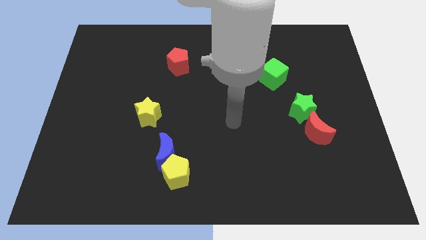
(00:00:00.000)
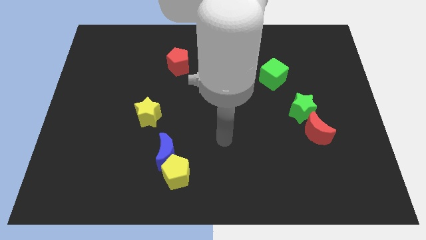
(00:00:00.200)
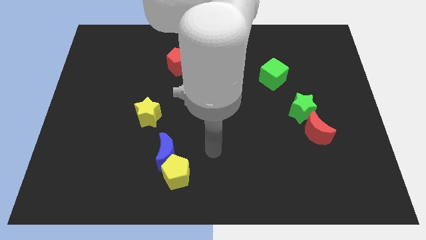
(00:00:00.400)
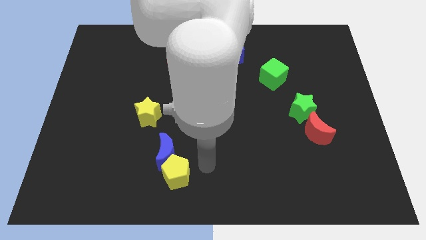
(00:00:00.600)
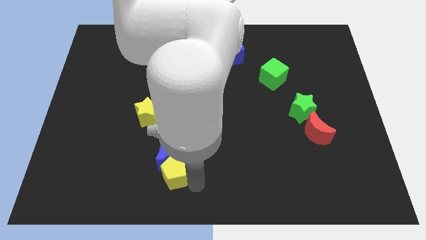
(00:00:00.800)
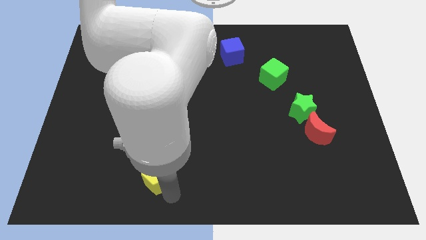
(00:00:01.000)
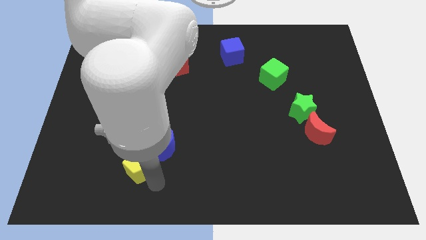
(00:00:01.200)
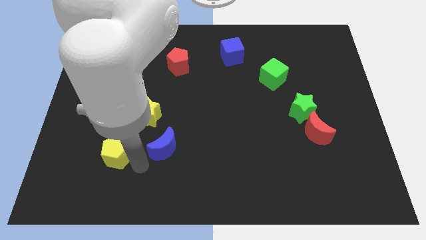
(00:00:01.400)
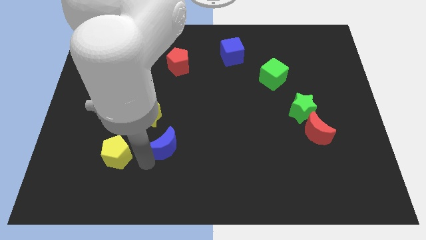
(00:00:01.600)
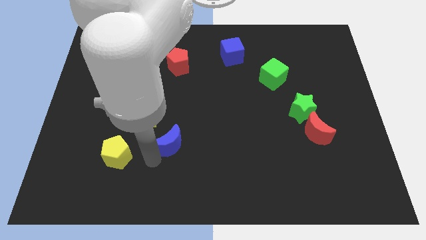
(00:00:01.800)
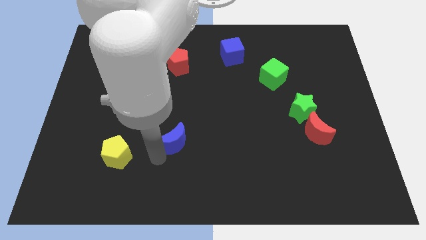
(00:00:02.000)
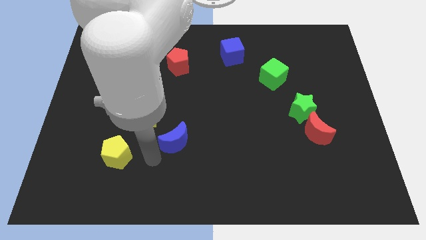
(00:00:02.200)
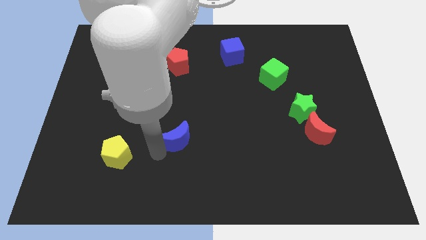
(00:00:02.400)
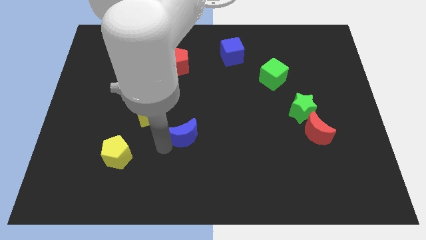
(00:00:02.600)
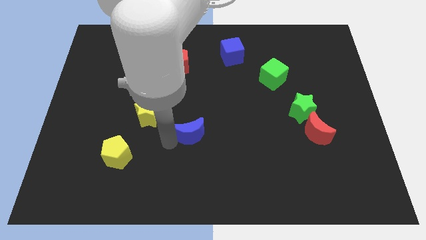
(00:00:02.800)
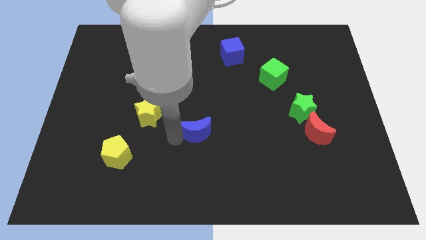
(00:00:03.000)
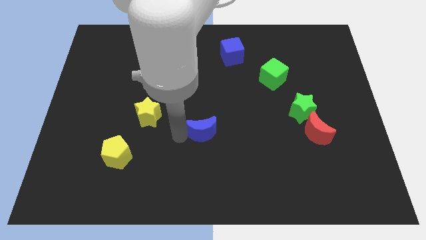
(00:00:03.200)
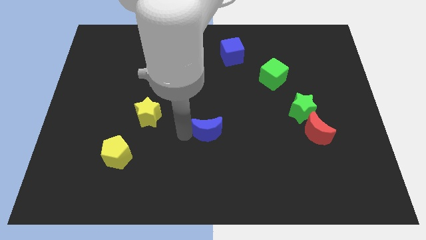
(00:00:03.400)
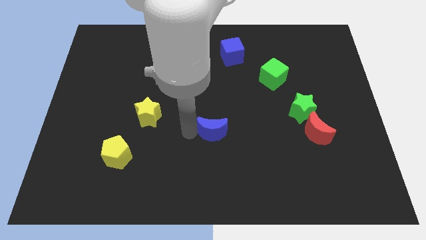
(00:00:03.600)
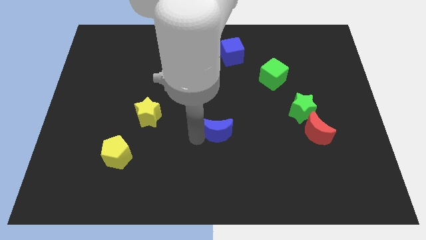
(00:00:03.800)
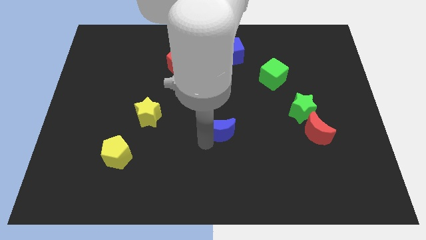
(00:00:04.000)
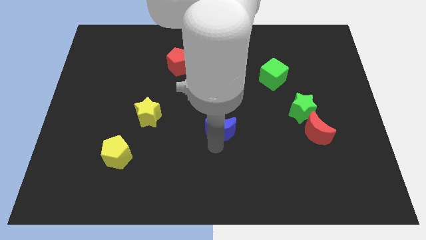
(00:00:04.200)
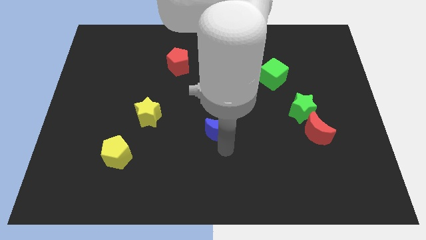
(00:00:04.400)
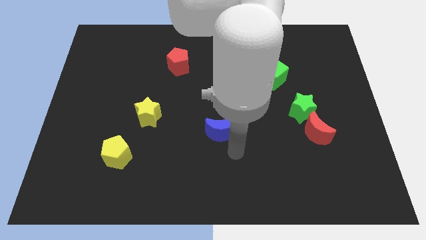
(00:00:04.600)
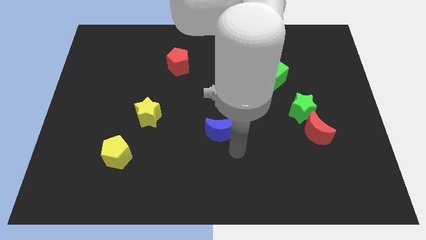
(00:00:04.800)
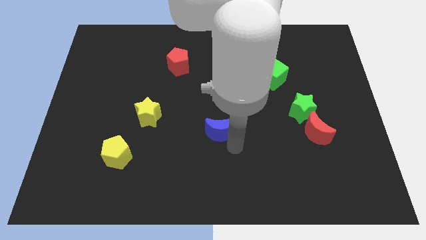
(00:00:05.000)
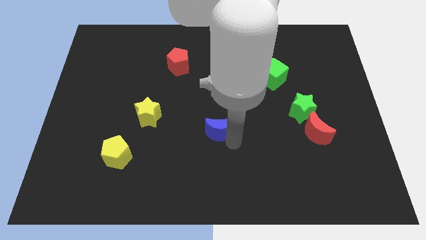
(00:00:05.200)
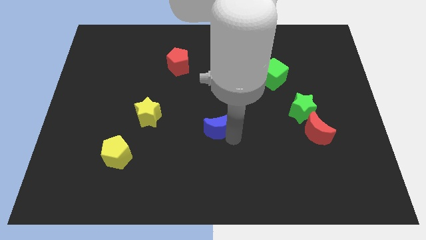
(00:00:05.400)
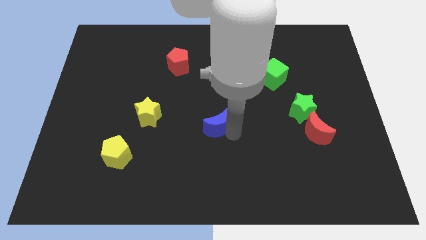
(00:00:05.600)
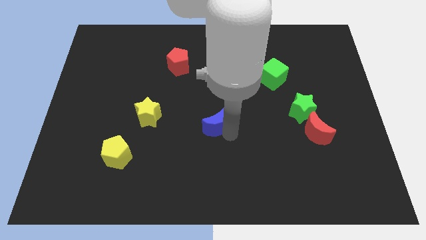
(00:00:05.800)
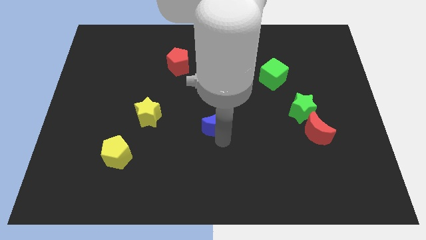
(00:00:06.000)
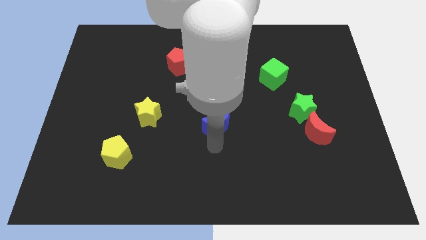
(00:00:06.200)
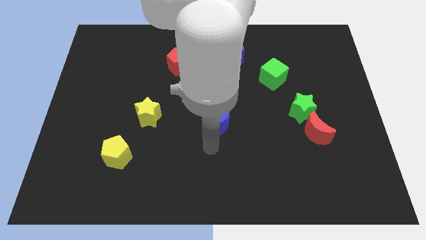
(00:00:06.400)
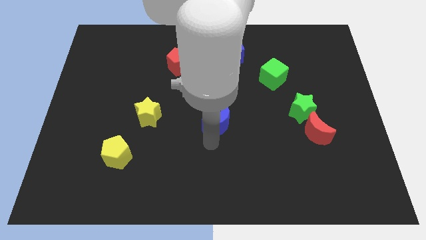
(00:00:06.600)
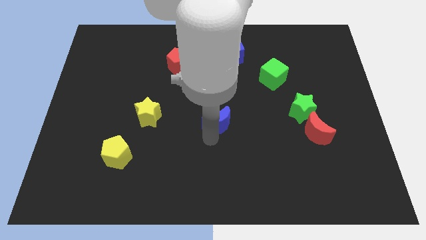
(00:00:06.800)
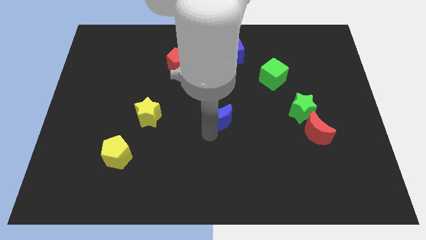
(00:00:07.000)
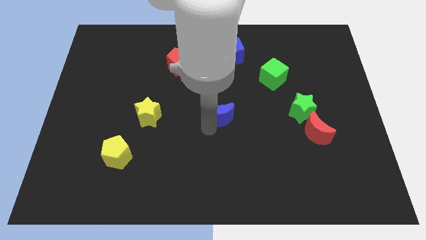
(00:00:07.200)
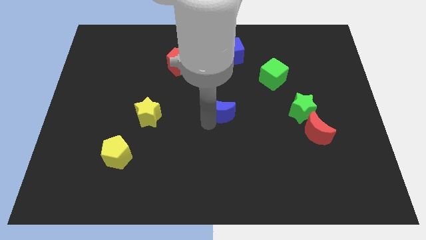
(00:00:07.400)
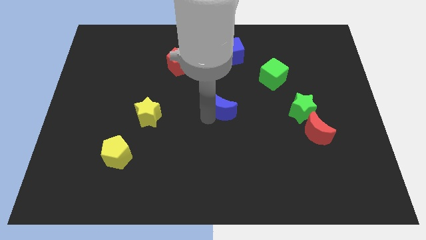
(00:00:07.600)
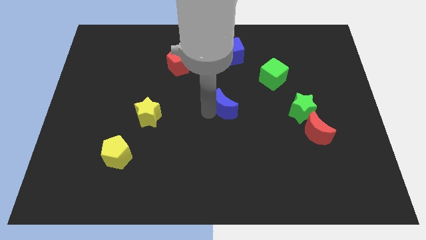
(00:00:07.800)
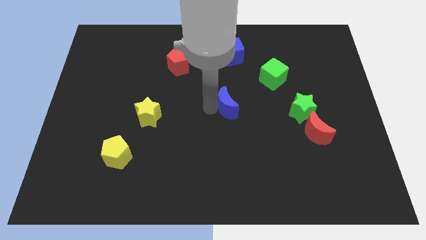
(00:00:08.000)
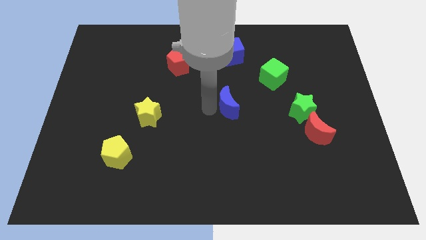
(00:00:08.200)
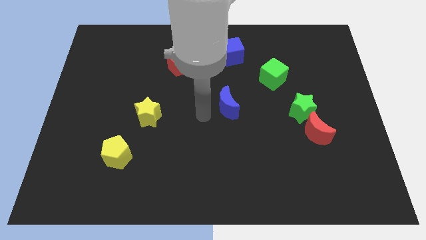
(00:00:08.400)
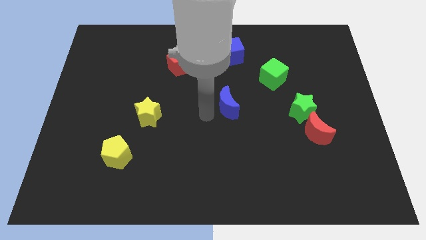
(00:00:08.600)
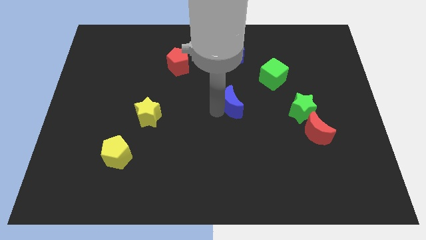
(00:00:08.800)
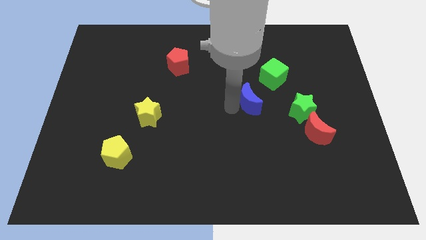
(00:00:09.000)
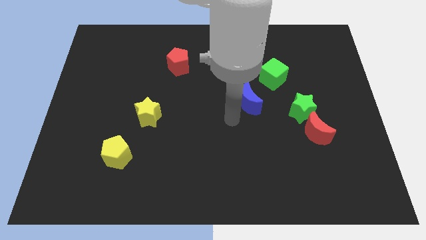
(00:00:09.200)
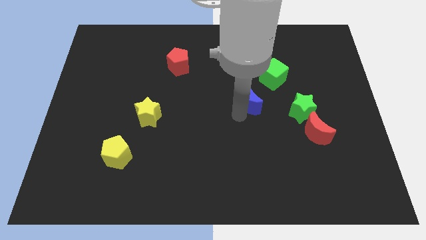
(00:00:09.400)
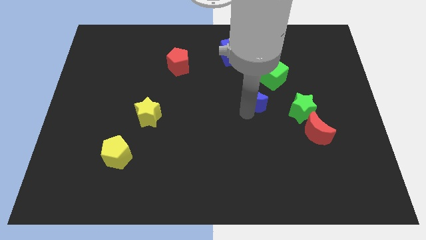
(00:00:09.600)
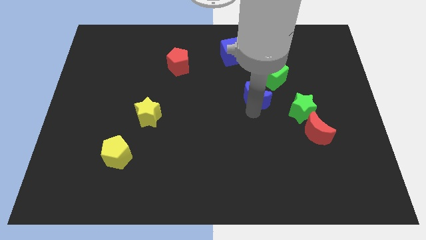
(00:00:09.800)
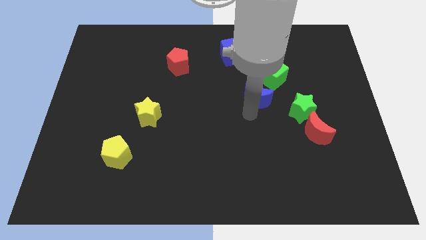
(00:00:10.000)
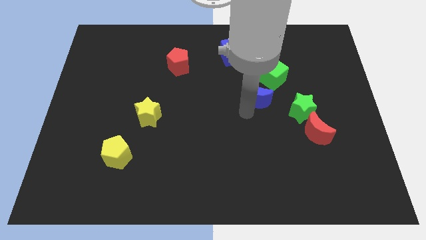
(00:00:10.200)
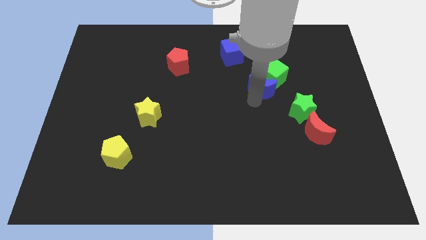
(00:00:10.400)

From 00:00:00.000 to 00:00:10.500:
put the blue moon close to the green cube
